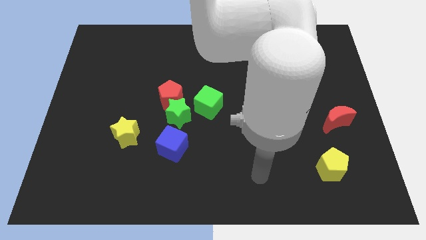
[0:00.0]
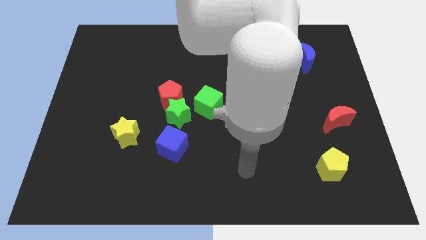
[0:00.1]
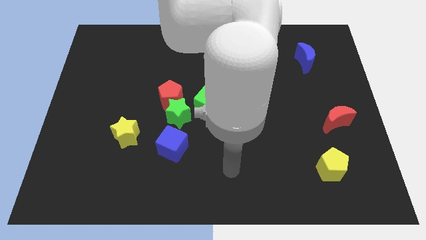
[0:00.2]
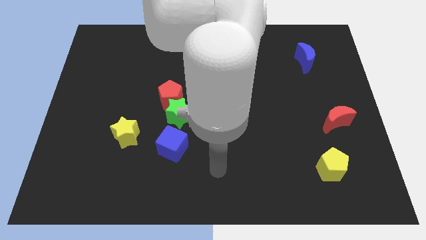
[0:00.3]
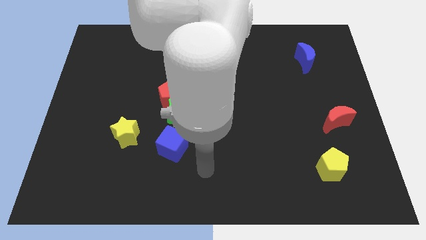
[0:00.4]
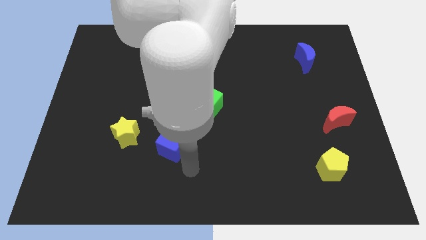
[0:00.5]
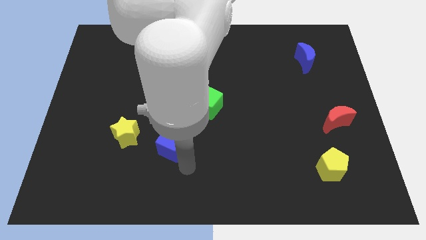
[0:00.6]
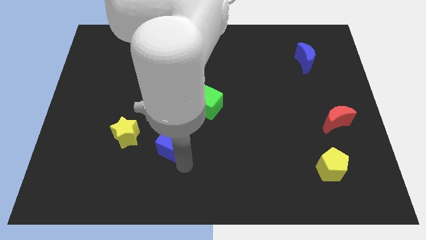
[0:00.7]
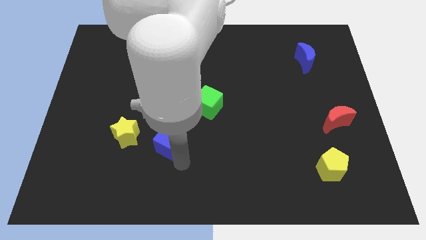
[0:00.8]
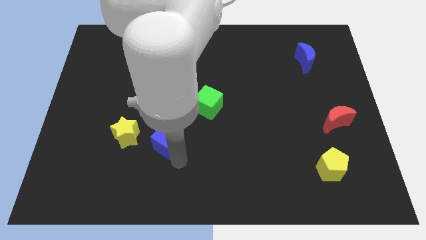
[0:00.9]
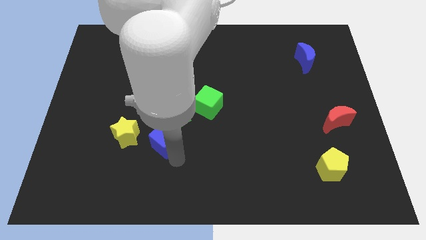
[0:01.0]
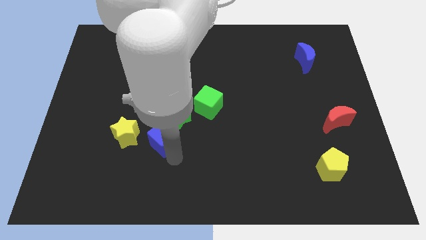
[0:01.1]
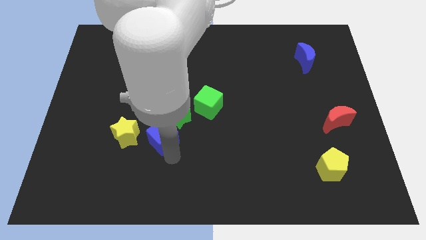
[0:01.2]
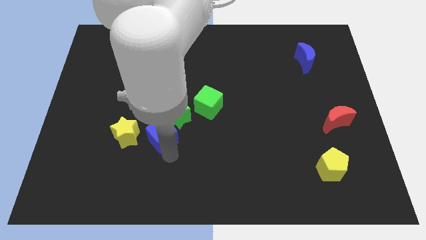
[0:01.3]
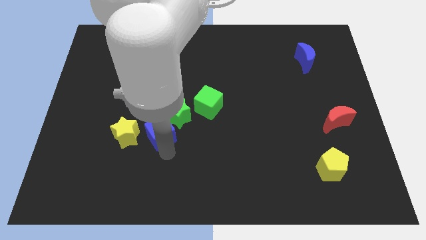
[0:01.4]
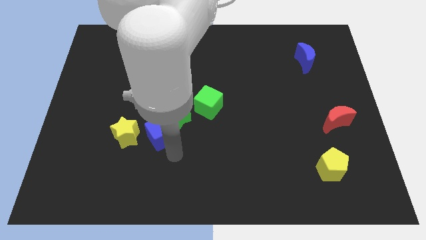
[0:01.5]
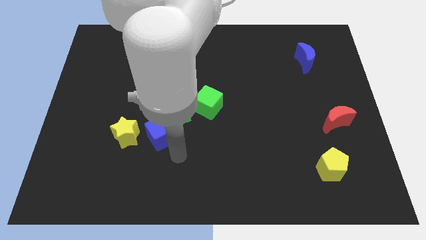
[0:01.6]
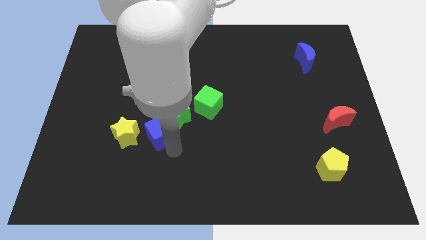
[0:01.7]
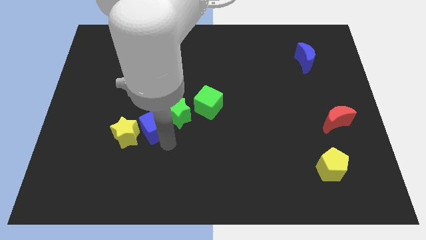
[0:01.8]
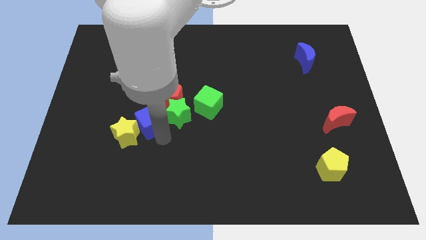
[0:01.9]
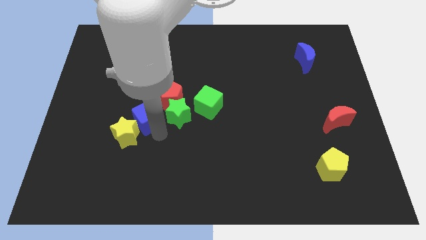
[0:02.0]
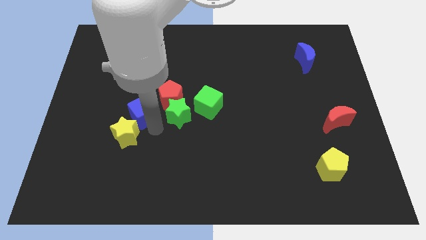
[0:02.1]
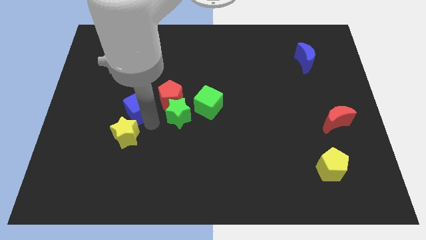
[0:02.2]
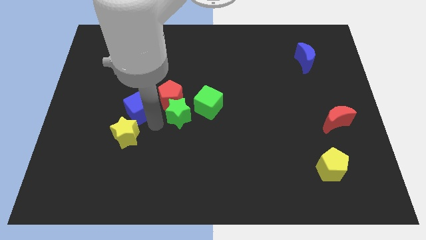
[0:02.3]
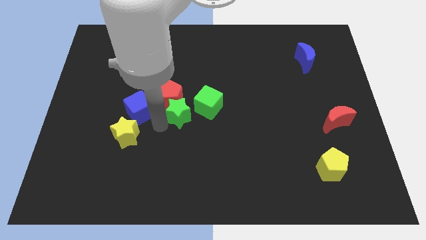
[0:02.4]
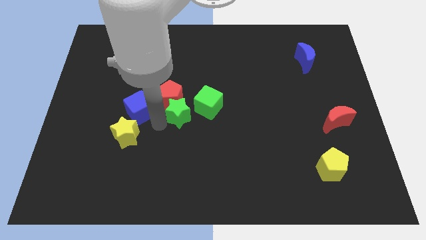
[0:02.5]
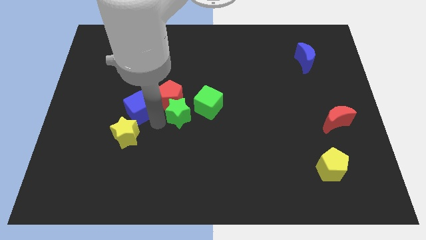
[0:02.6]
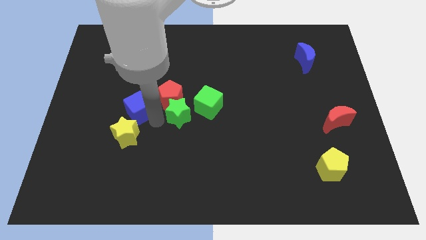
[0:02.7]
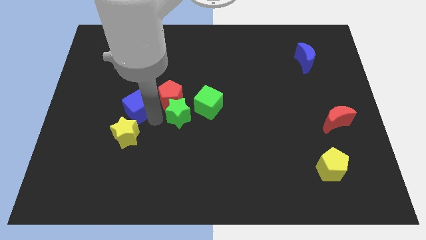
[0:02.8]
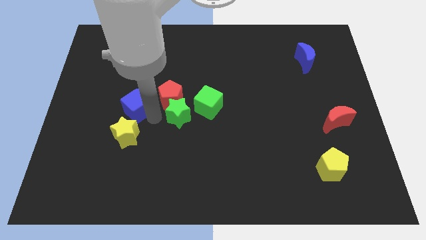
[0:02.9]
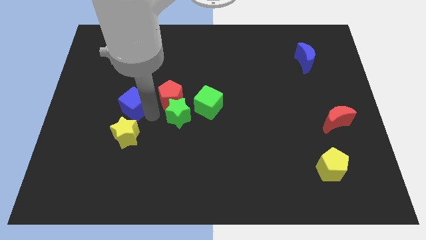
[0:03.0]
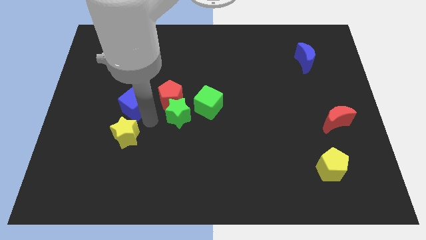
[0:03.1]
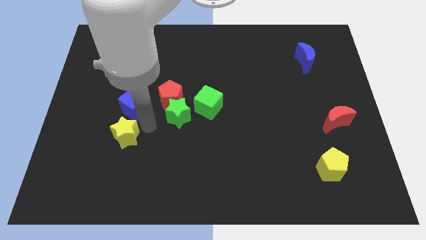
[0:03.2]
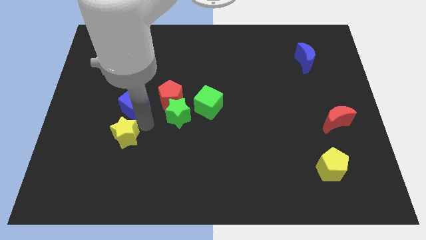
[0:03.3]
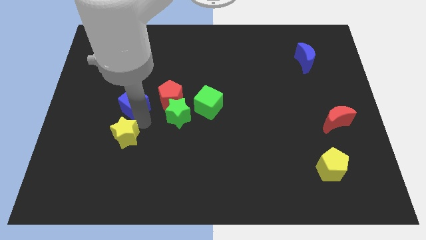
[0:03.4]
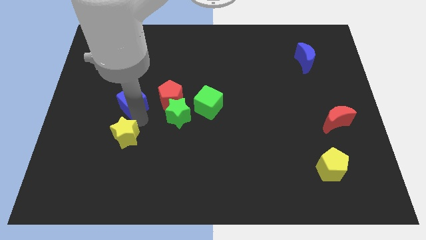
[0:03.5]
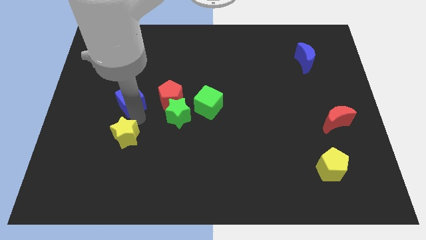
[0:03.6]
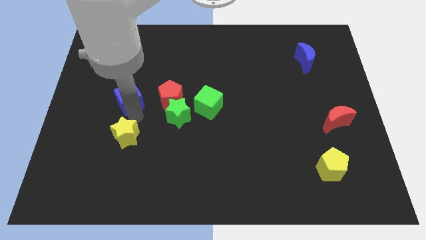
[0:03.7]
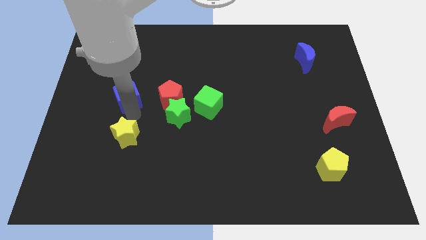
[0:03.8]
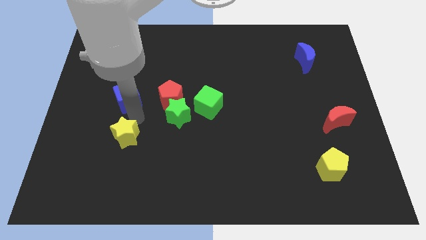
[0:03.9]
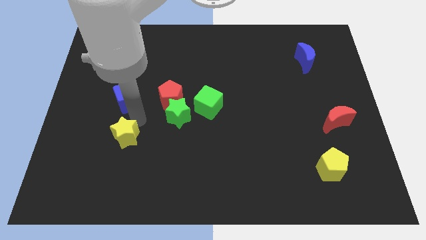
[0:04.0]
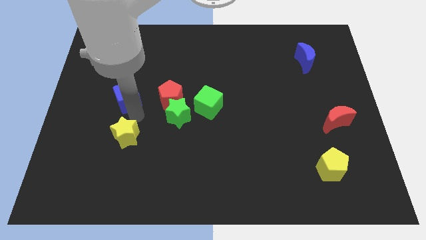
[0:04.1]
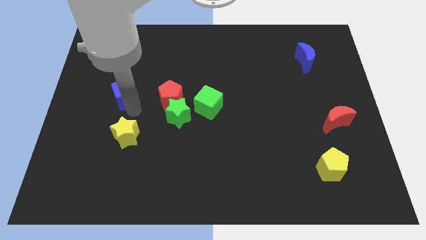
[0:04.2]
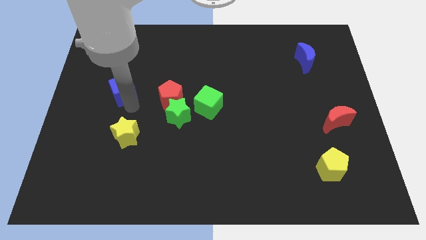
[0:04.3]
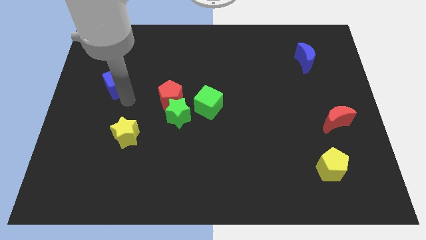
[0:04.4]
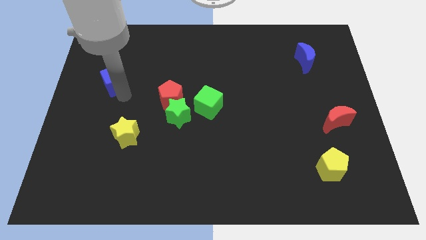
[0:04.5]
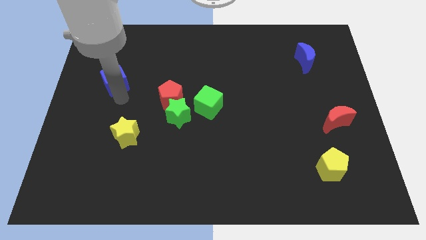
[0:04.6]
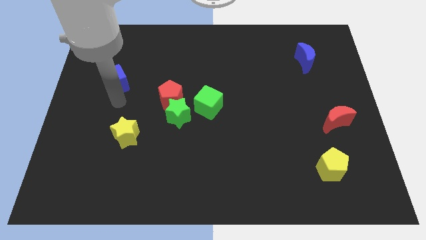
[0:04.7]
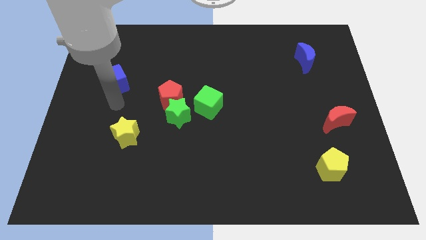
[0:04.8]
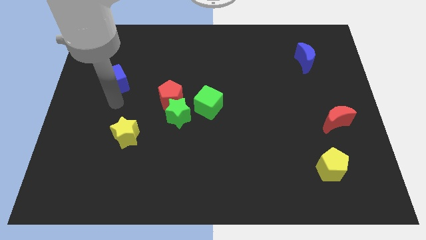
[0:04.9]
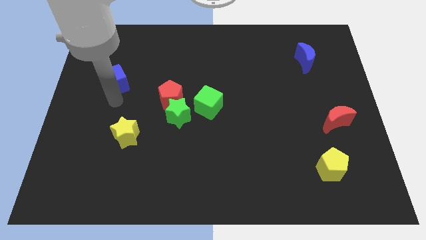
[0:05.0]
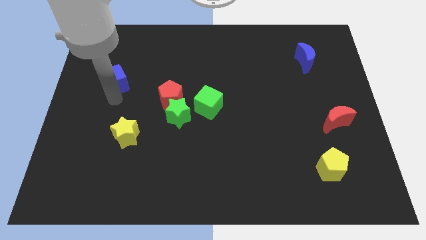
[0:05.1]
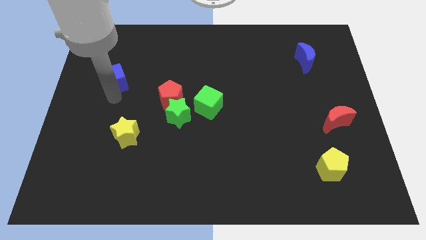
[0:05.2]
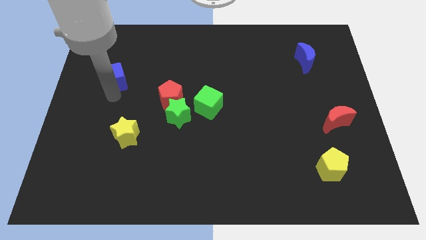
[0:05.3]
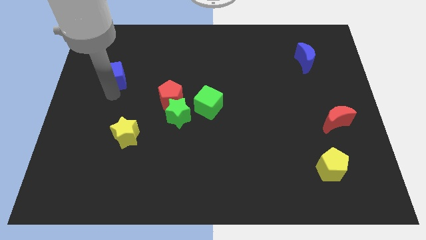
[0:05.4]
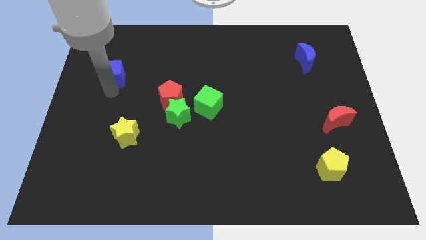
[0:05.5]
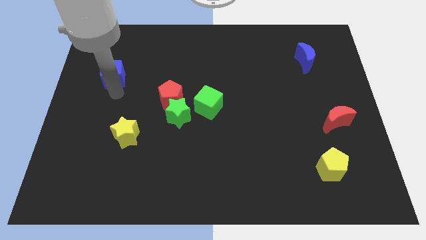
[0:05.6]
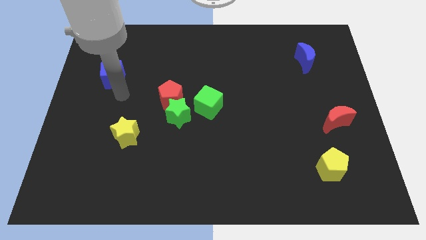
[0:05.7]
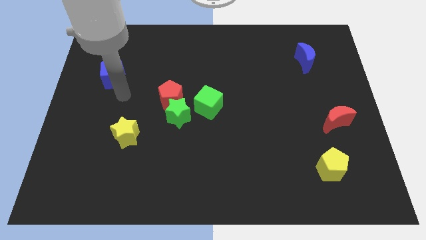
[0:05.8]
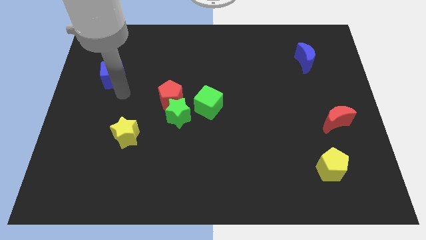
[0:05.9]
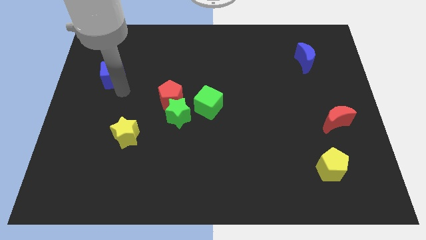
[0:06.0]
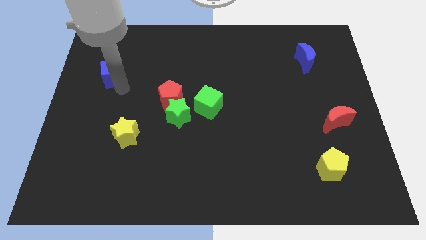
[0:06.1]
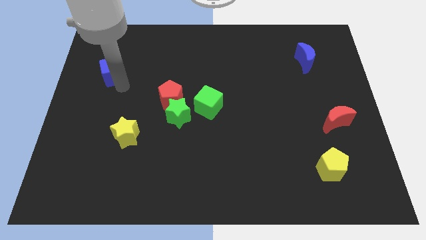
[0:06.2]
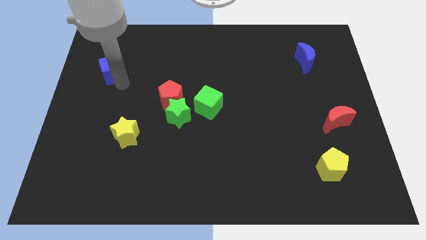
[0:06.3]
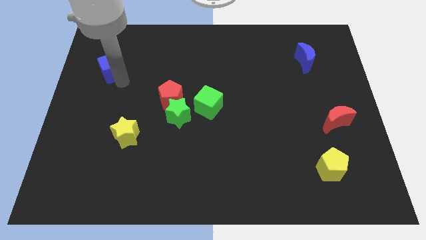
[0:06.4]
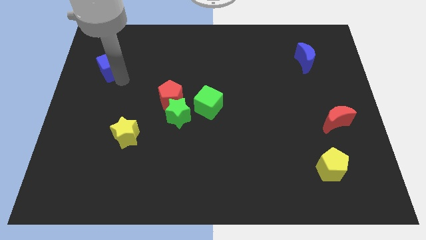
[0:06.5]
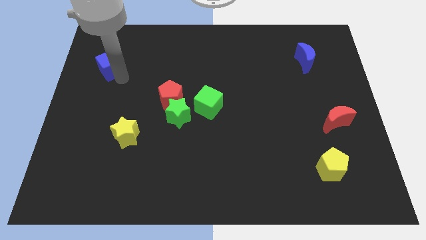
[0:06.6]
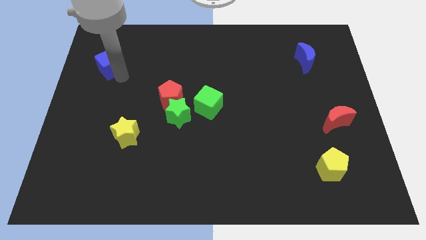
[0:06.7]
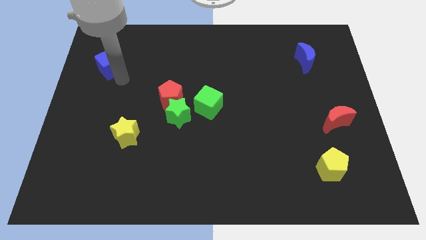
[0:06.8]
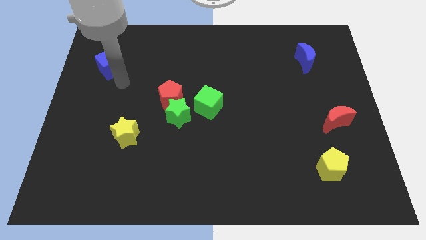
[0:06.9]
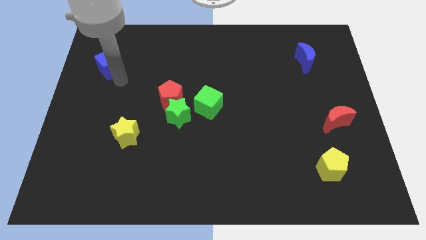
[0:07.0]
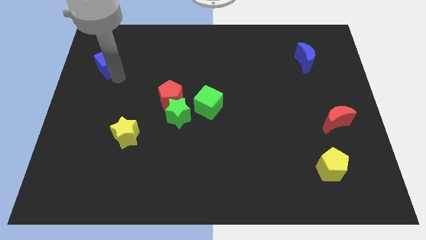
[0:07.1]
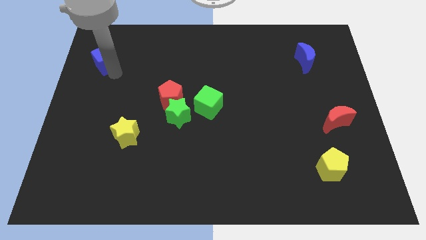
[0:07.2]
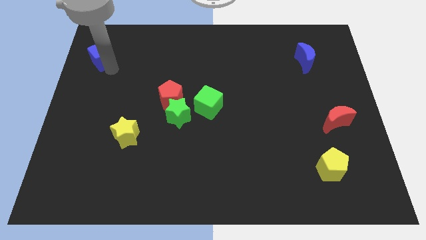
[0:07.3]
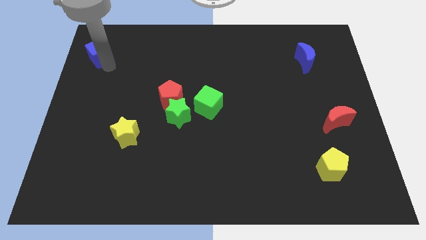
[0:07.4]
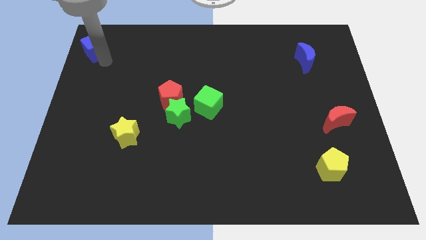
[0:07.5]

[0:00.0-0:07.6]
slide the blue cube to the top left of the board

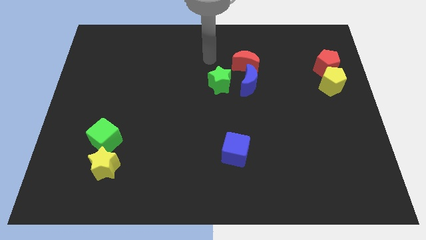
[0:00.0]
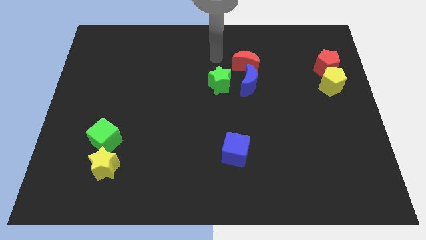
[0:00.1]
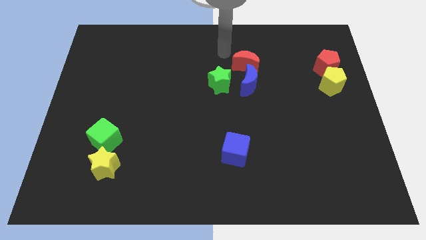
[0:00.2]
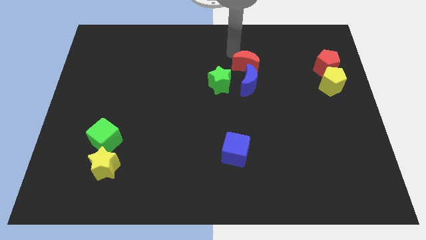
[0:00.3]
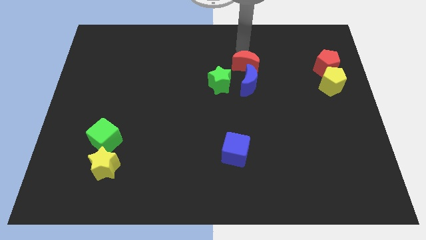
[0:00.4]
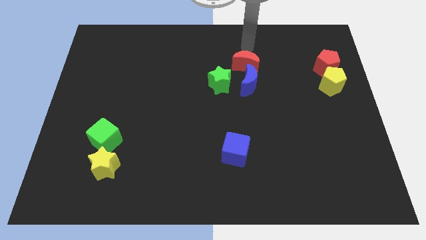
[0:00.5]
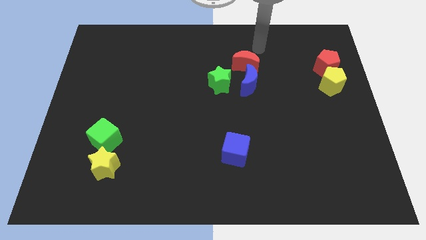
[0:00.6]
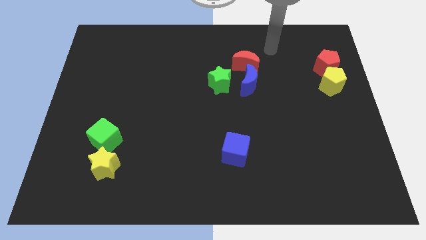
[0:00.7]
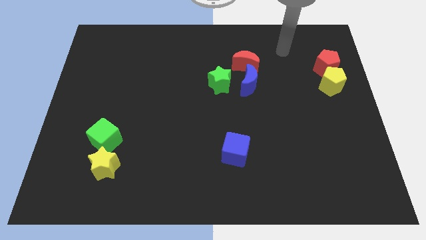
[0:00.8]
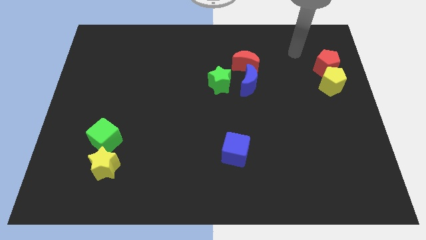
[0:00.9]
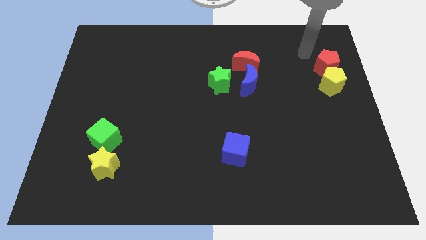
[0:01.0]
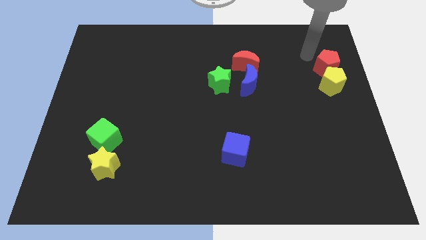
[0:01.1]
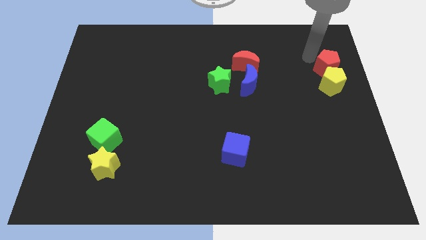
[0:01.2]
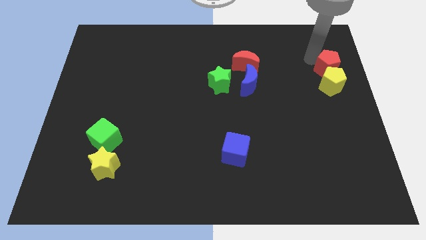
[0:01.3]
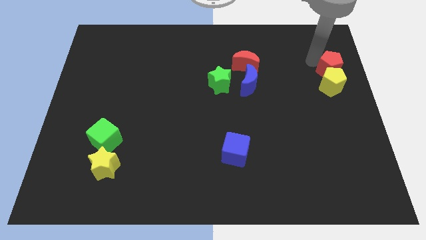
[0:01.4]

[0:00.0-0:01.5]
put the red pentagon to the right side
